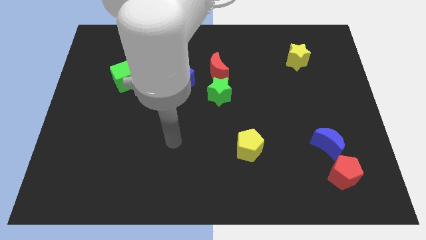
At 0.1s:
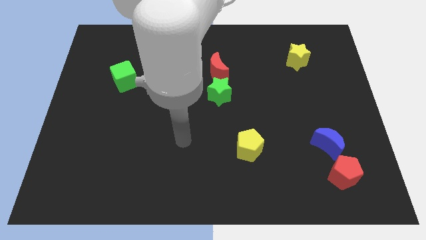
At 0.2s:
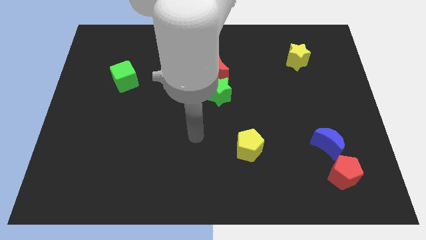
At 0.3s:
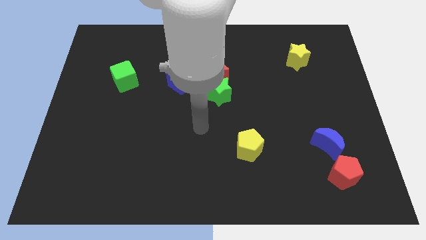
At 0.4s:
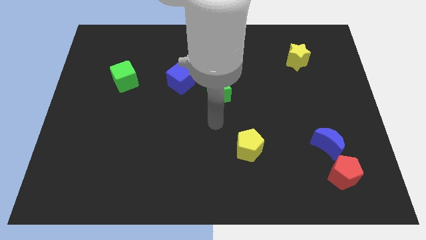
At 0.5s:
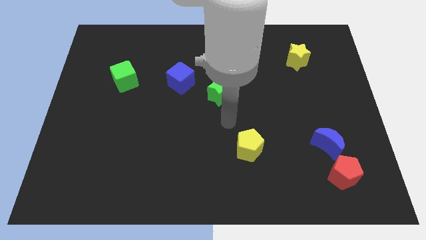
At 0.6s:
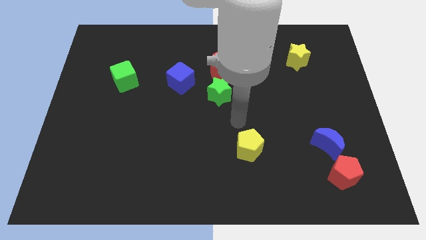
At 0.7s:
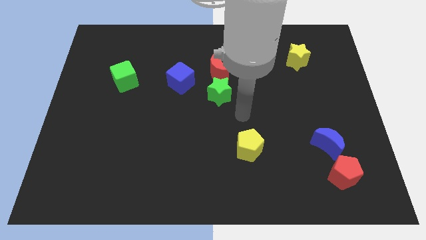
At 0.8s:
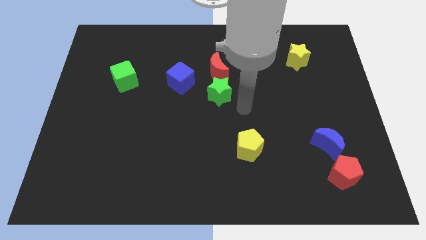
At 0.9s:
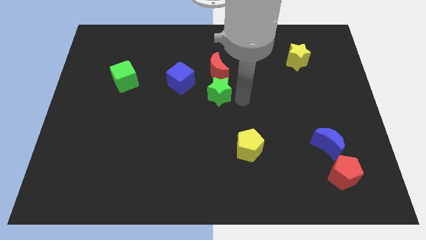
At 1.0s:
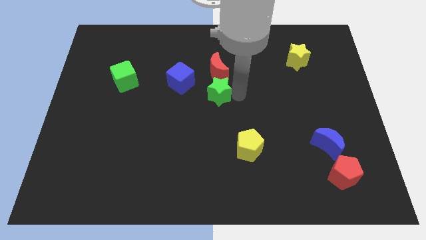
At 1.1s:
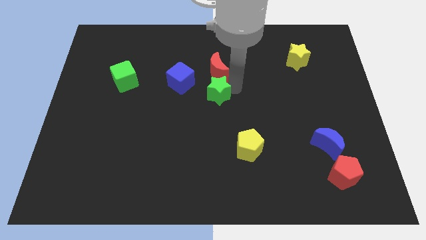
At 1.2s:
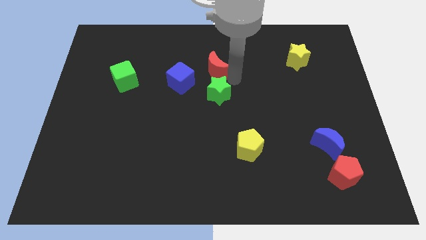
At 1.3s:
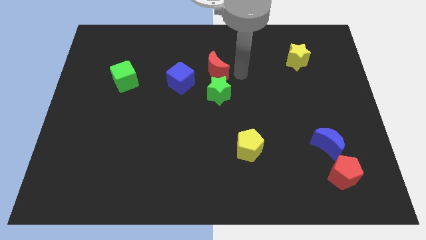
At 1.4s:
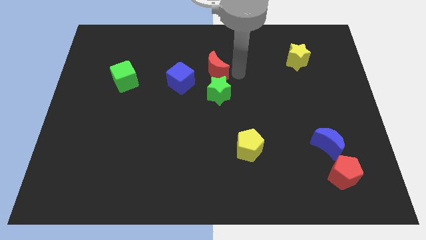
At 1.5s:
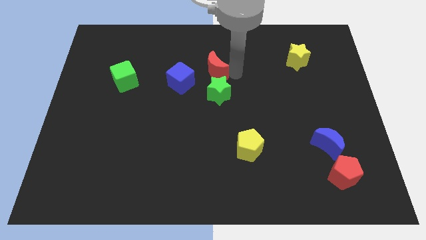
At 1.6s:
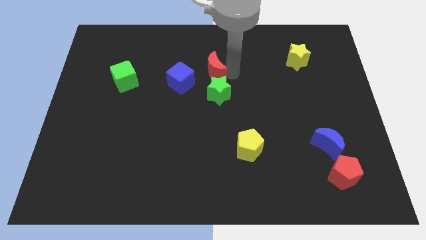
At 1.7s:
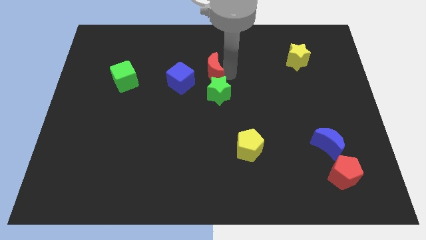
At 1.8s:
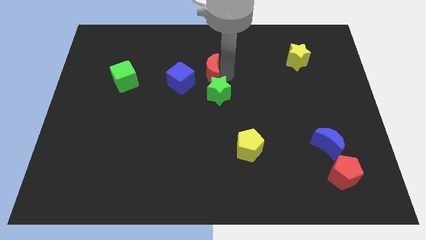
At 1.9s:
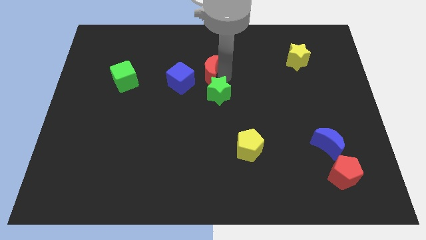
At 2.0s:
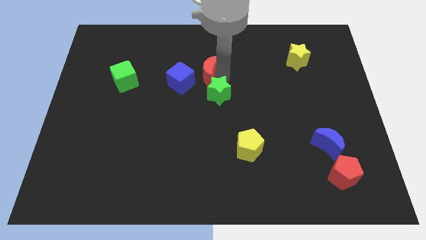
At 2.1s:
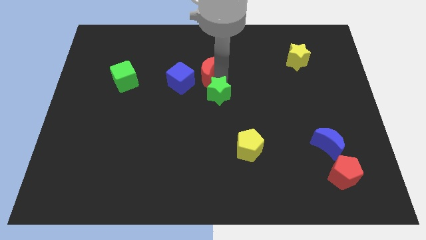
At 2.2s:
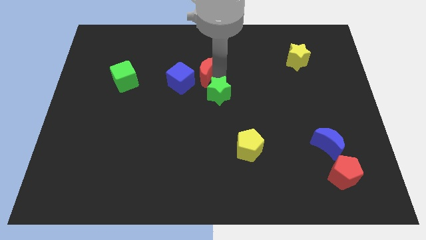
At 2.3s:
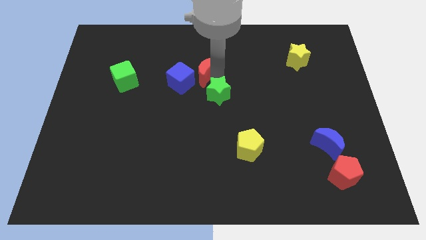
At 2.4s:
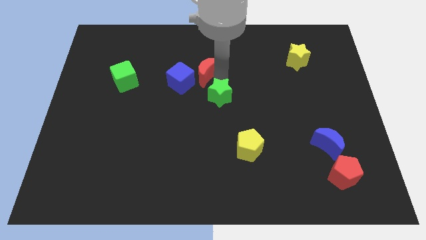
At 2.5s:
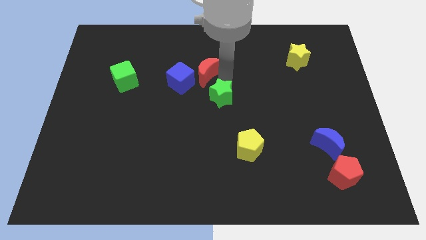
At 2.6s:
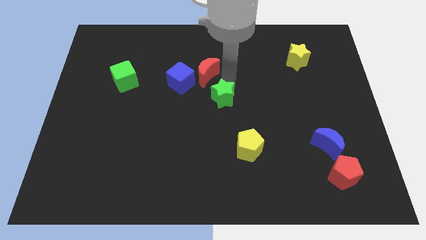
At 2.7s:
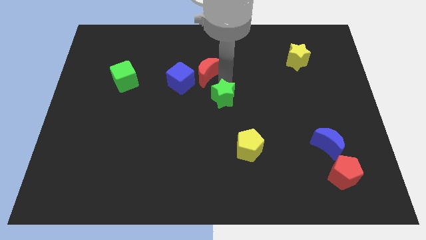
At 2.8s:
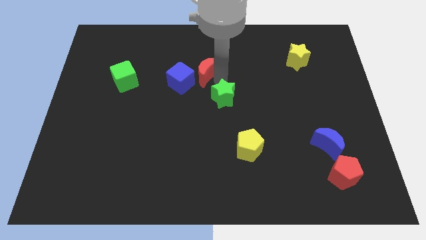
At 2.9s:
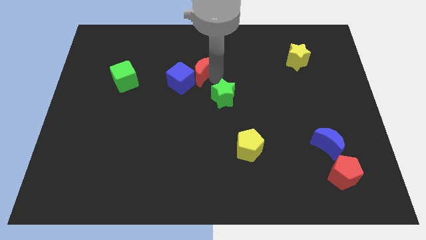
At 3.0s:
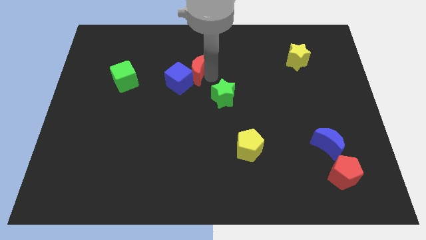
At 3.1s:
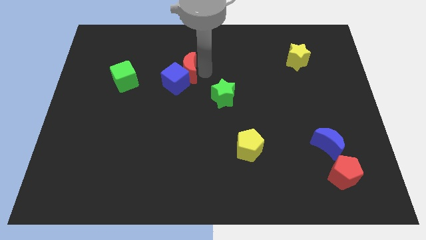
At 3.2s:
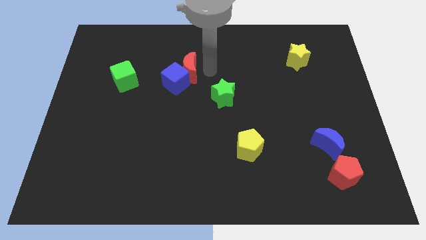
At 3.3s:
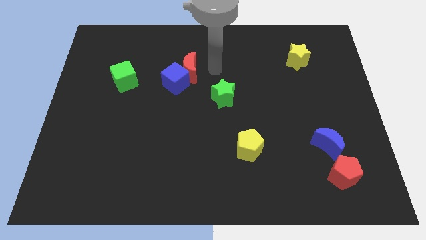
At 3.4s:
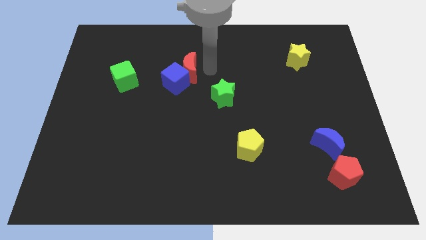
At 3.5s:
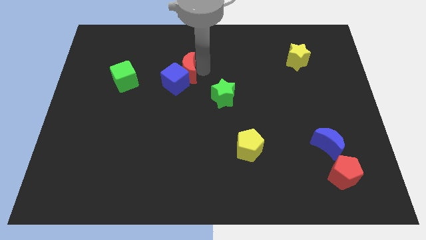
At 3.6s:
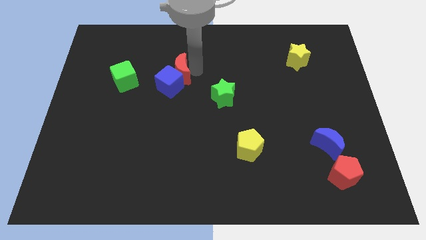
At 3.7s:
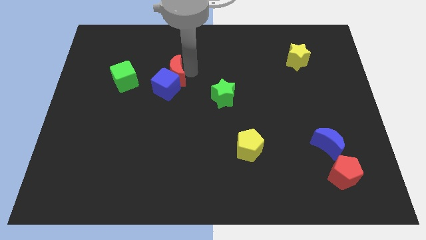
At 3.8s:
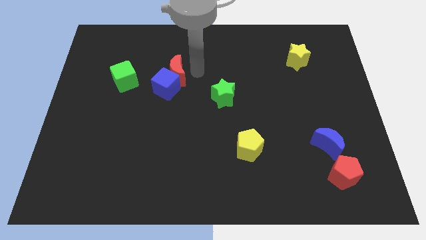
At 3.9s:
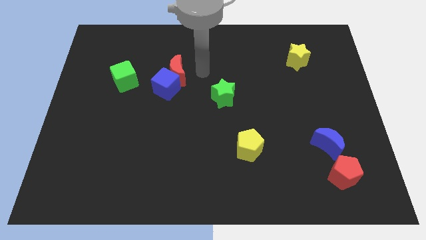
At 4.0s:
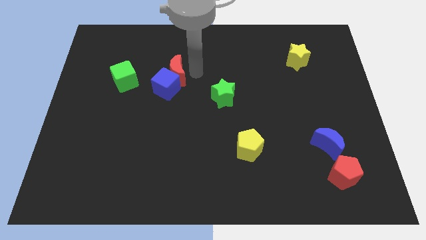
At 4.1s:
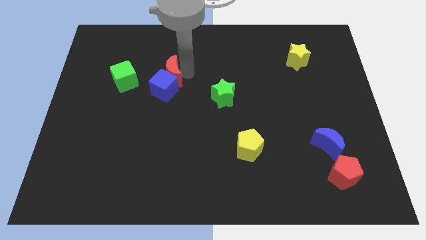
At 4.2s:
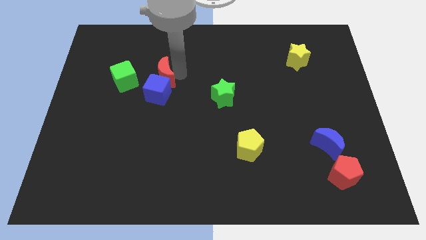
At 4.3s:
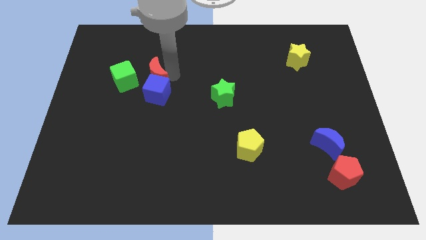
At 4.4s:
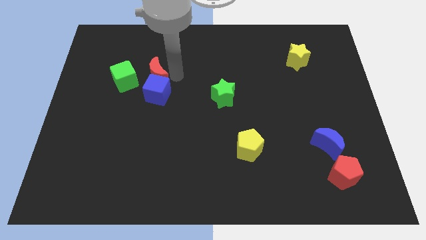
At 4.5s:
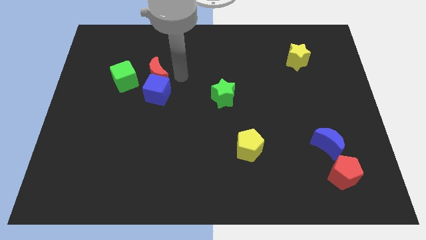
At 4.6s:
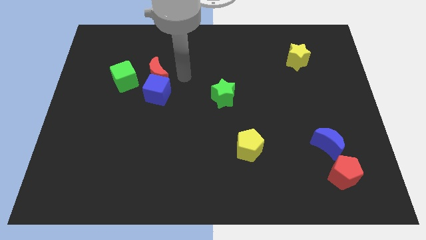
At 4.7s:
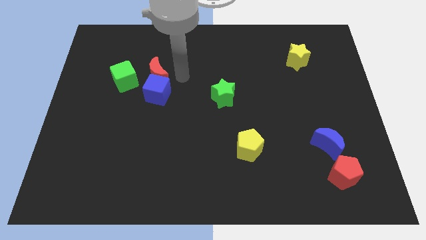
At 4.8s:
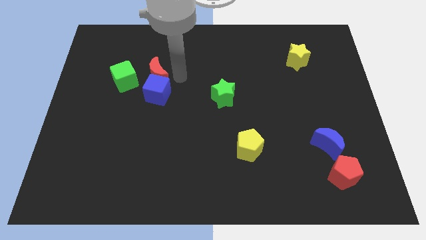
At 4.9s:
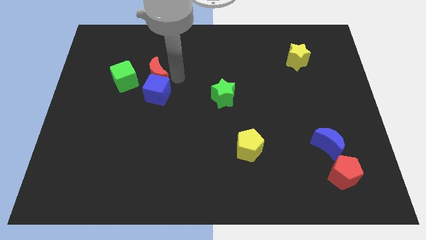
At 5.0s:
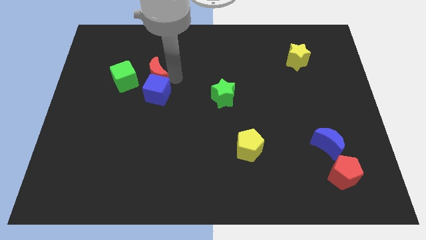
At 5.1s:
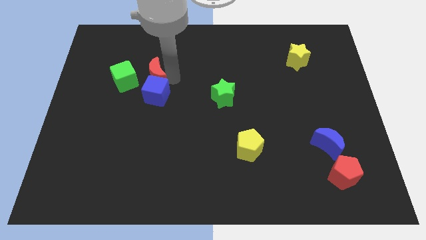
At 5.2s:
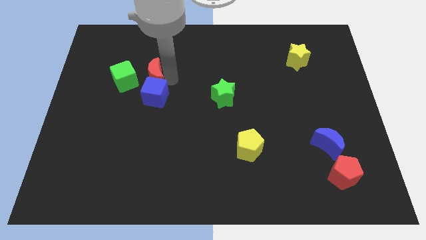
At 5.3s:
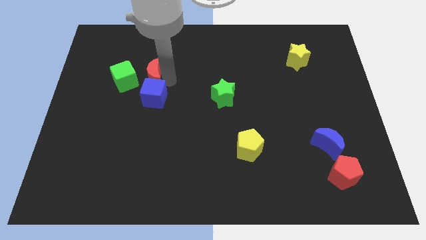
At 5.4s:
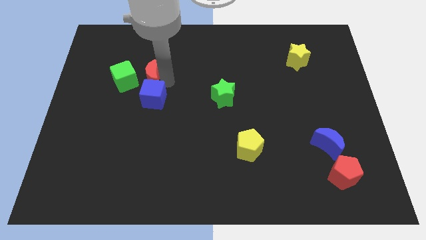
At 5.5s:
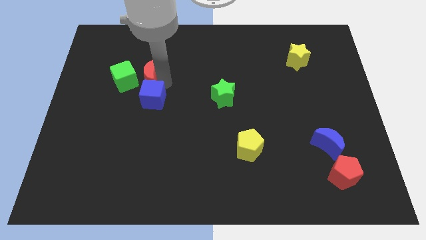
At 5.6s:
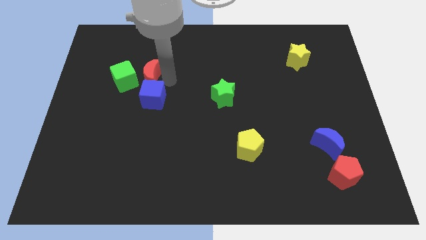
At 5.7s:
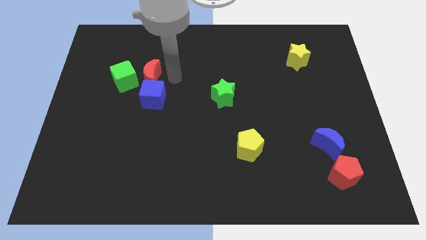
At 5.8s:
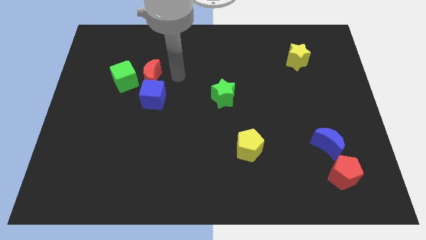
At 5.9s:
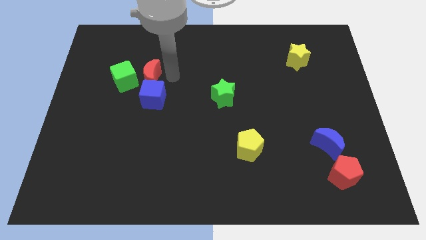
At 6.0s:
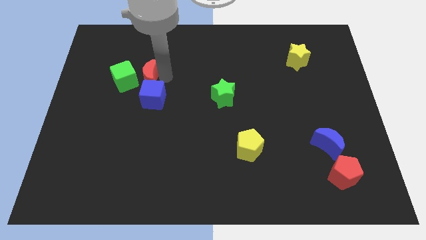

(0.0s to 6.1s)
push the red moon close to the green cube

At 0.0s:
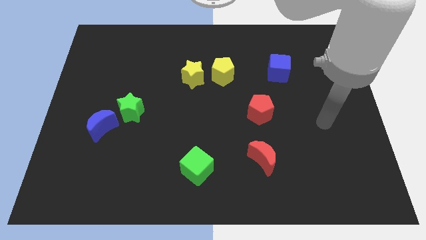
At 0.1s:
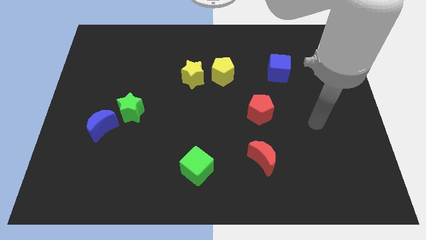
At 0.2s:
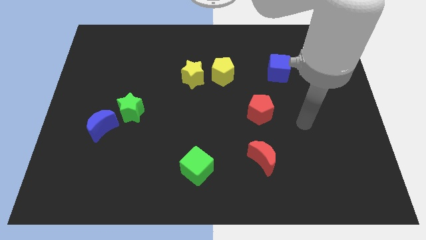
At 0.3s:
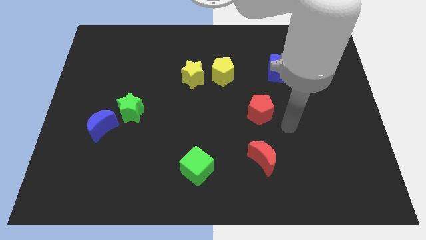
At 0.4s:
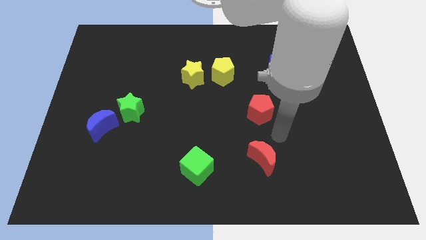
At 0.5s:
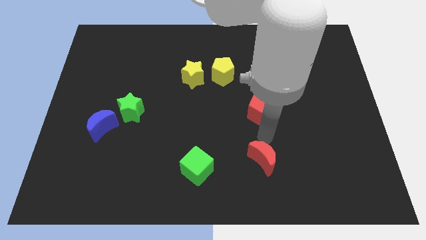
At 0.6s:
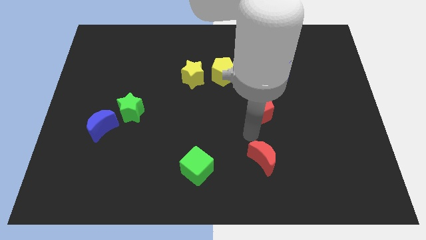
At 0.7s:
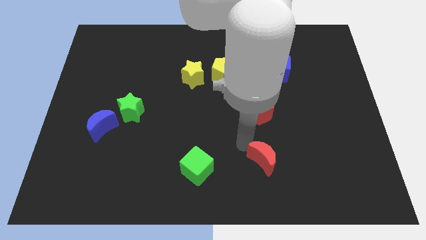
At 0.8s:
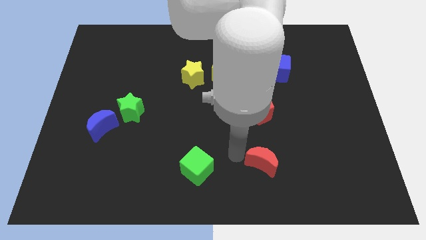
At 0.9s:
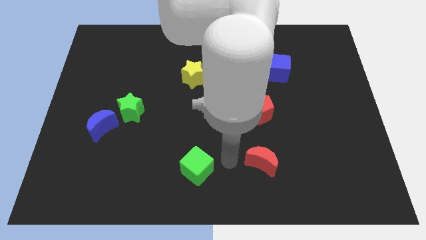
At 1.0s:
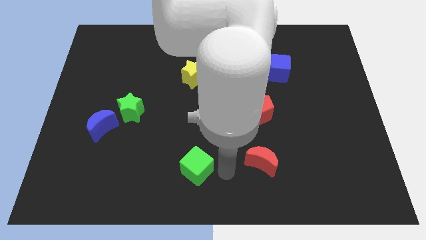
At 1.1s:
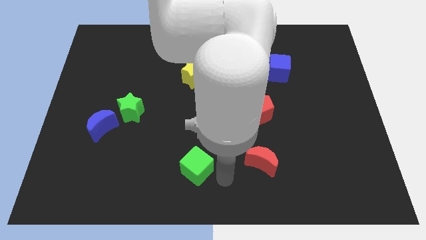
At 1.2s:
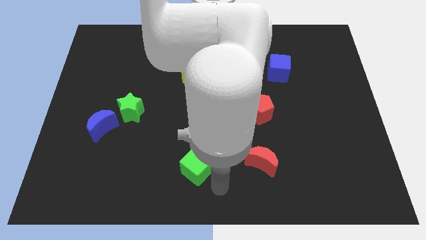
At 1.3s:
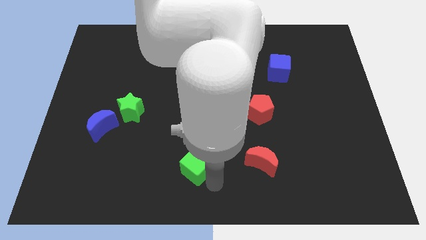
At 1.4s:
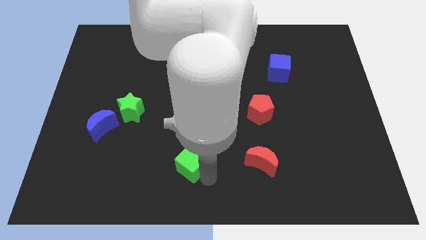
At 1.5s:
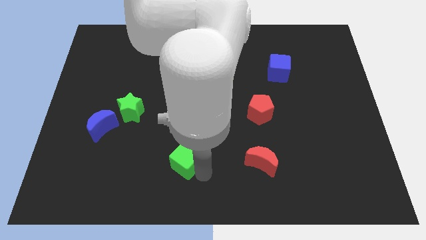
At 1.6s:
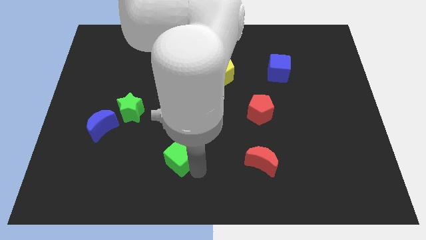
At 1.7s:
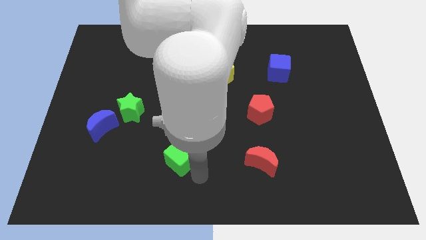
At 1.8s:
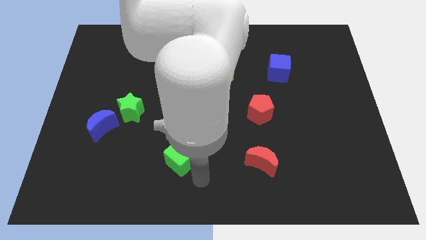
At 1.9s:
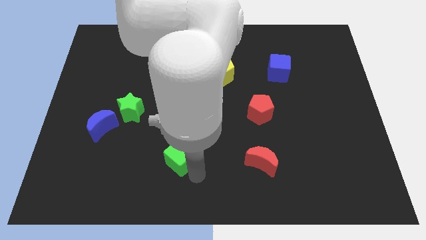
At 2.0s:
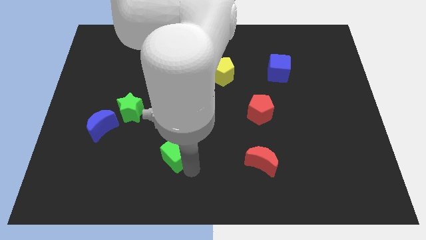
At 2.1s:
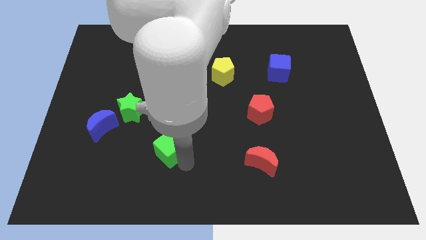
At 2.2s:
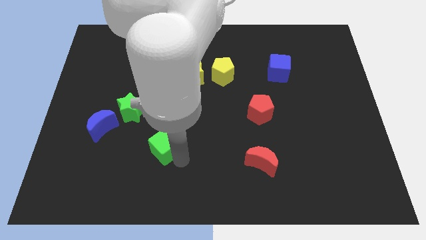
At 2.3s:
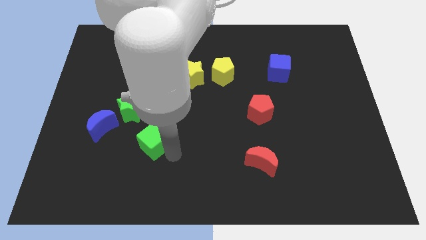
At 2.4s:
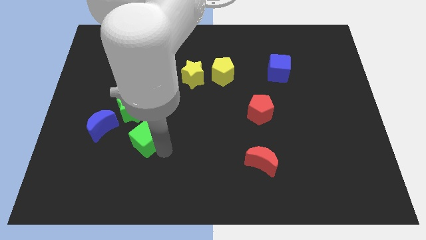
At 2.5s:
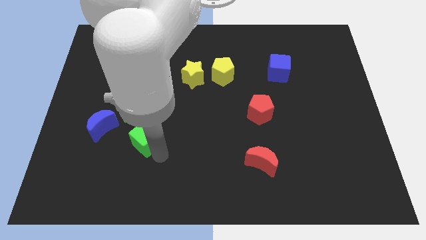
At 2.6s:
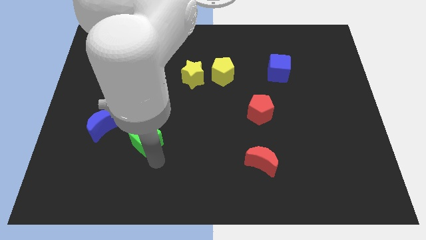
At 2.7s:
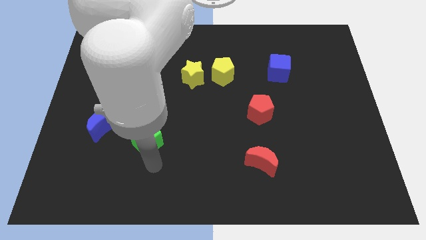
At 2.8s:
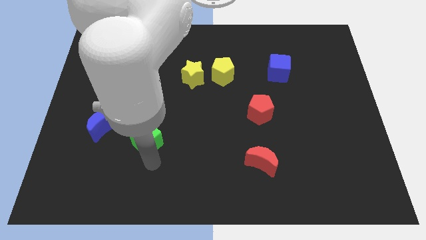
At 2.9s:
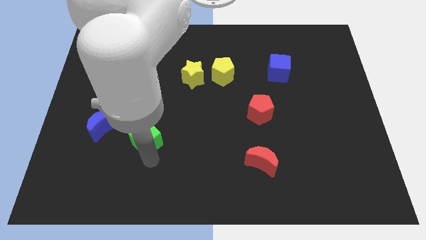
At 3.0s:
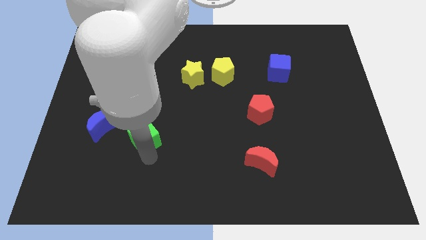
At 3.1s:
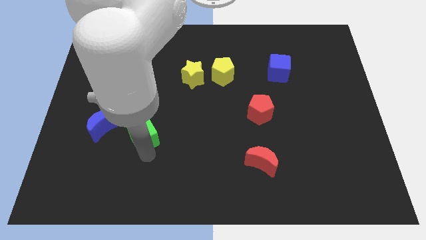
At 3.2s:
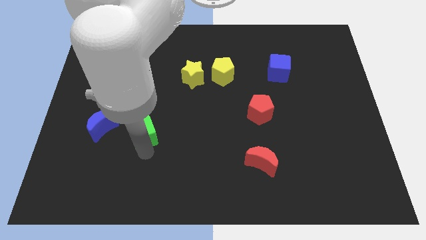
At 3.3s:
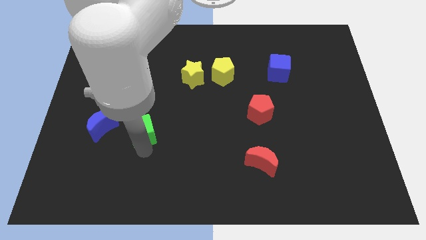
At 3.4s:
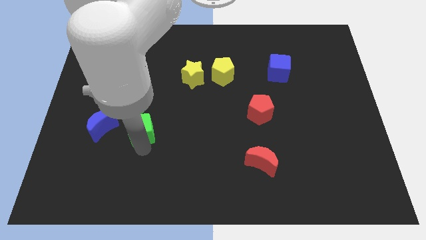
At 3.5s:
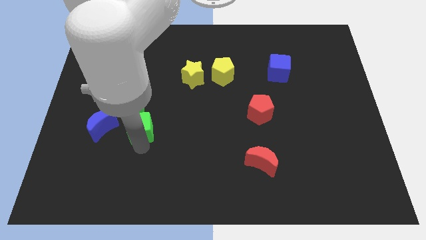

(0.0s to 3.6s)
move the green cube towards the green star
